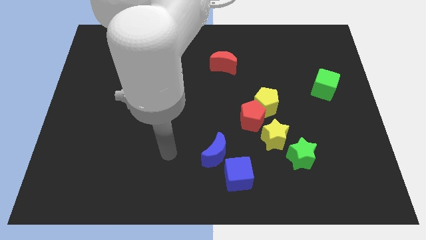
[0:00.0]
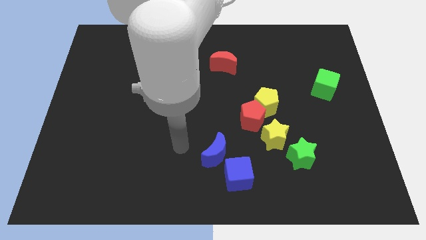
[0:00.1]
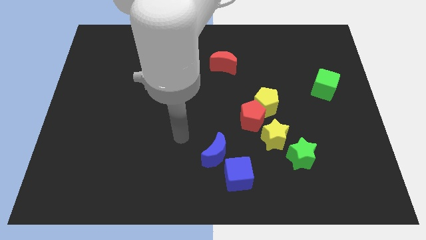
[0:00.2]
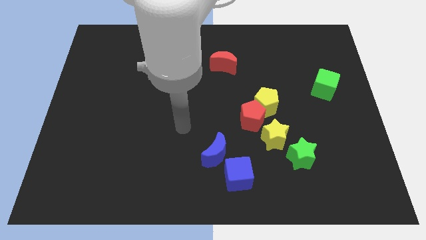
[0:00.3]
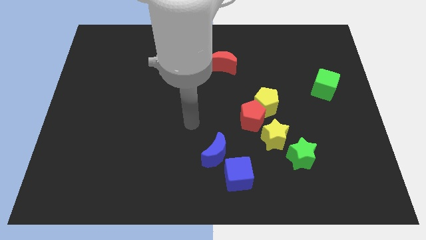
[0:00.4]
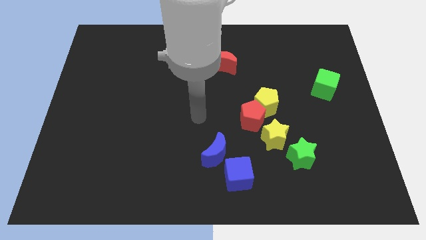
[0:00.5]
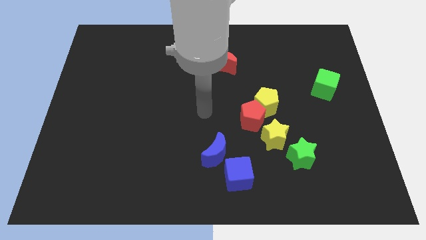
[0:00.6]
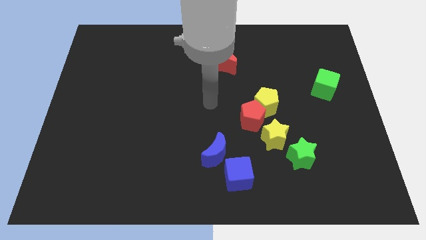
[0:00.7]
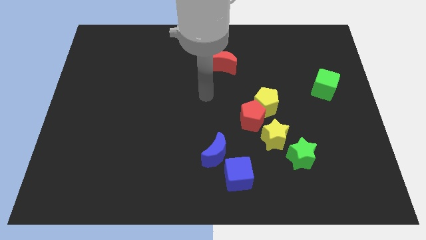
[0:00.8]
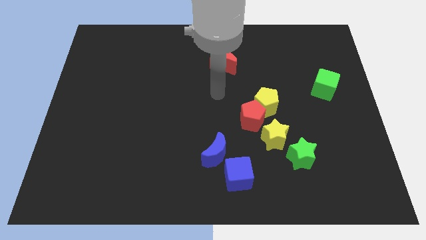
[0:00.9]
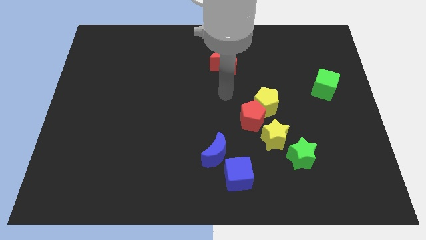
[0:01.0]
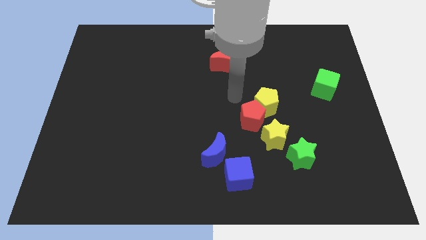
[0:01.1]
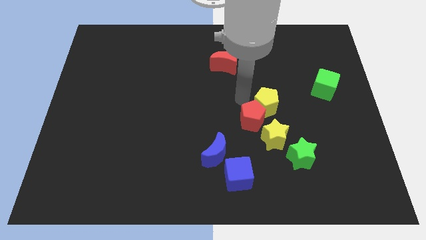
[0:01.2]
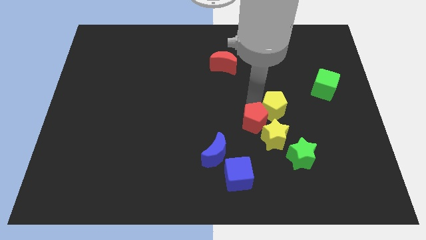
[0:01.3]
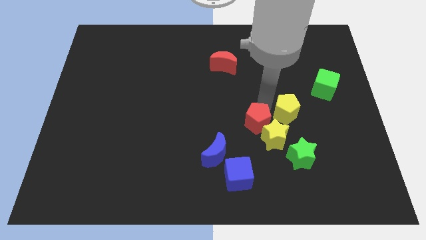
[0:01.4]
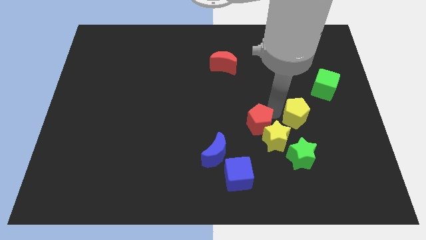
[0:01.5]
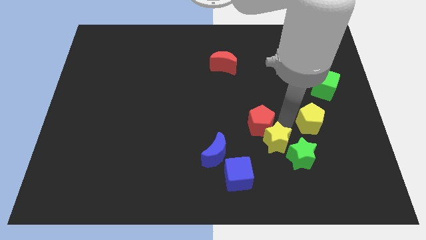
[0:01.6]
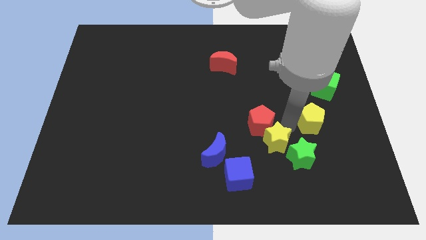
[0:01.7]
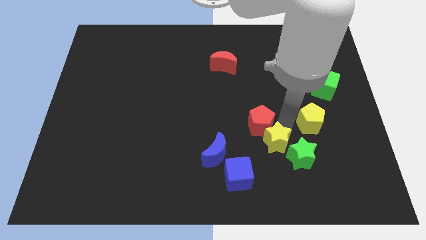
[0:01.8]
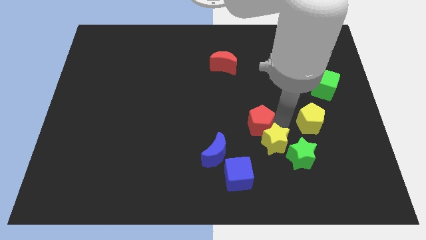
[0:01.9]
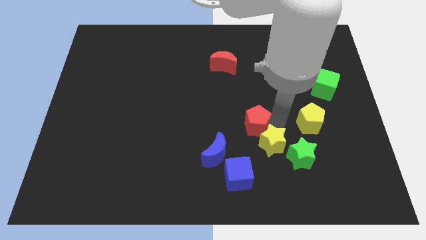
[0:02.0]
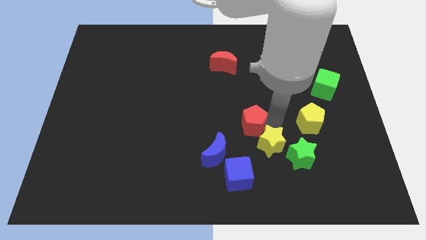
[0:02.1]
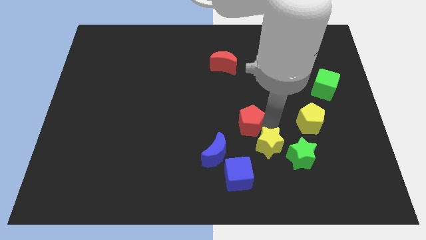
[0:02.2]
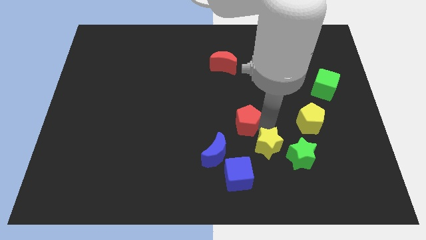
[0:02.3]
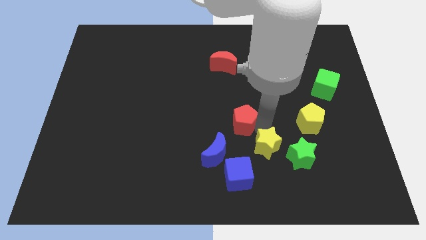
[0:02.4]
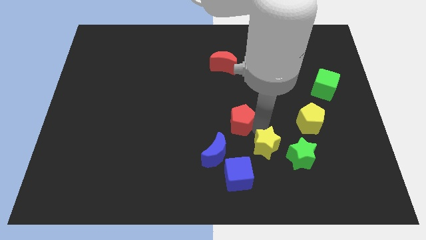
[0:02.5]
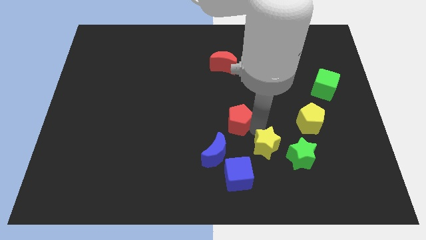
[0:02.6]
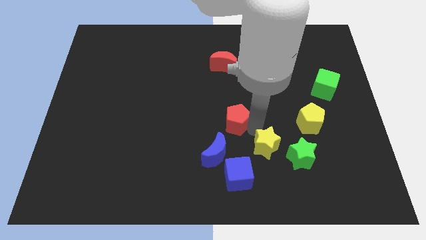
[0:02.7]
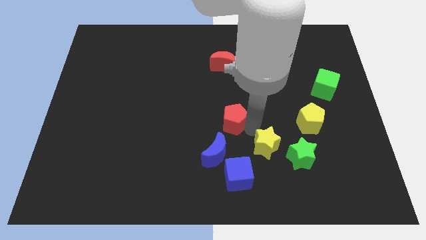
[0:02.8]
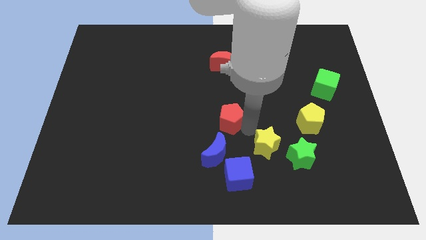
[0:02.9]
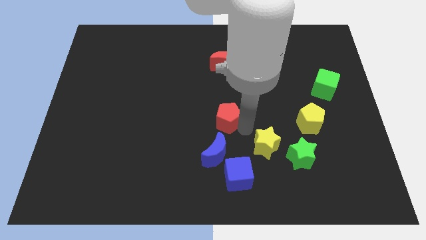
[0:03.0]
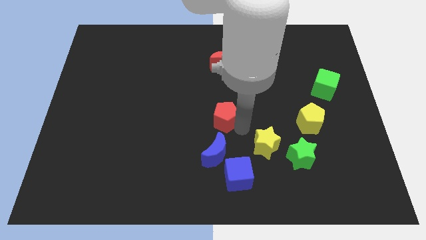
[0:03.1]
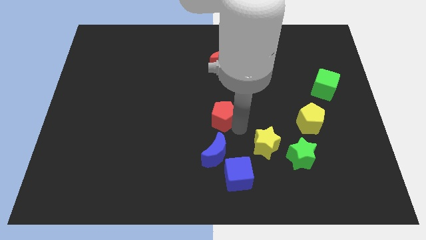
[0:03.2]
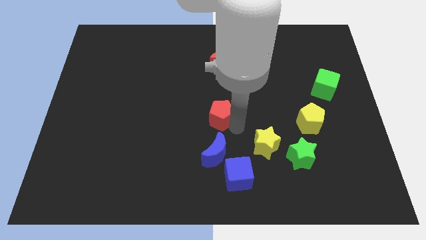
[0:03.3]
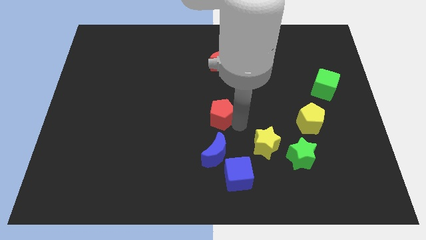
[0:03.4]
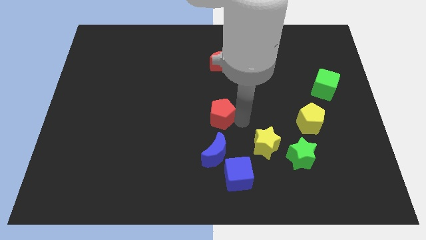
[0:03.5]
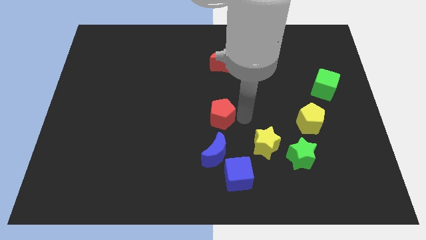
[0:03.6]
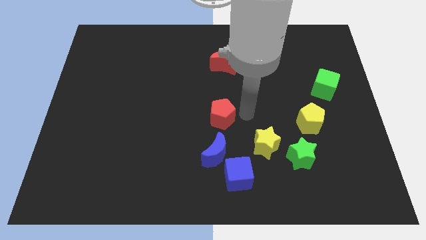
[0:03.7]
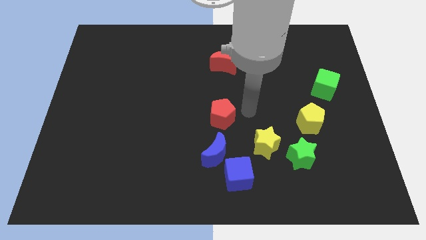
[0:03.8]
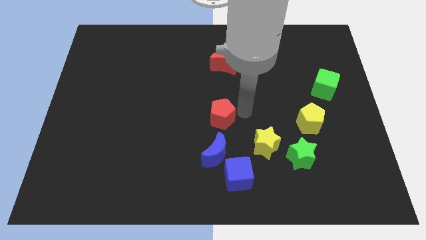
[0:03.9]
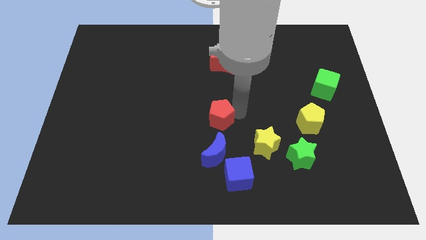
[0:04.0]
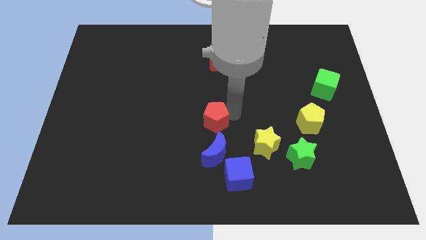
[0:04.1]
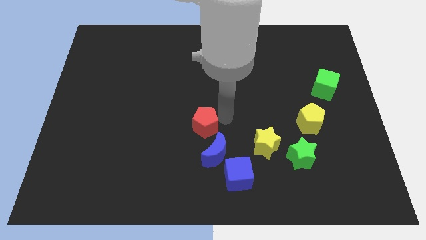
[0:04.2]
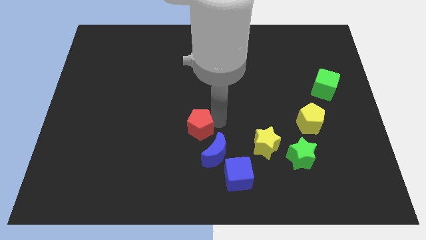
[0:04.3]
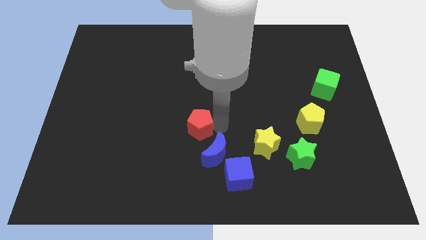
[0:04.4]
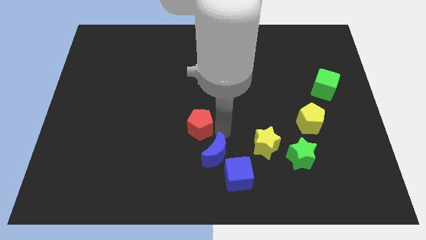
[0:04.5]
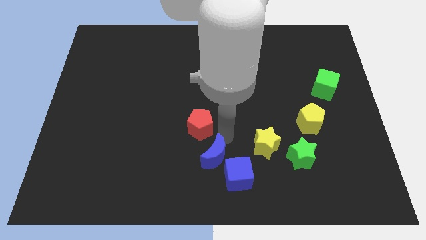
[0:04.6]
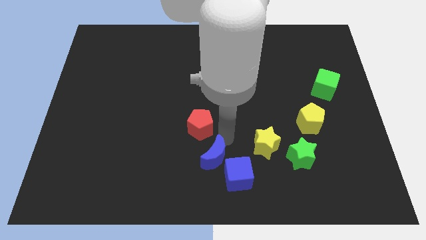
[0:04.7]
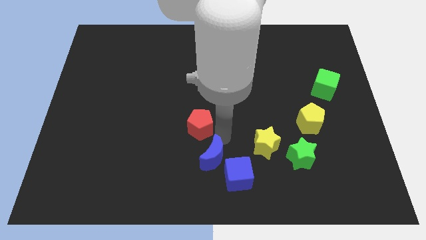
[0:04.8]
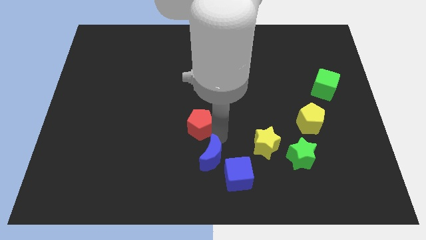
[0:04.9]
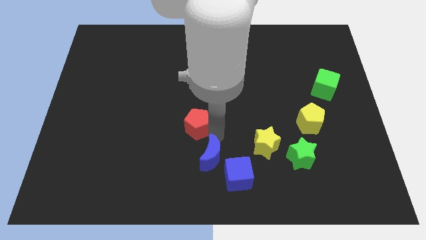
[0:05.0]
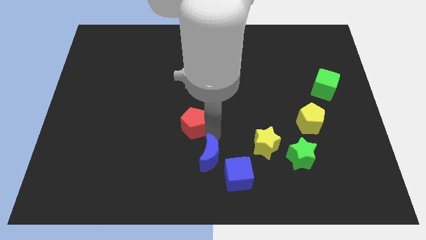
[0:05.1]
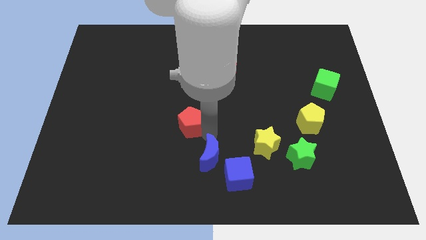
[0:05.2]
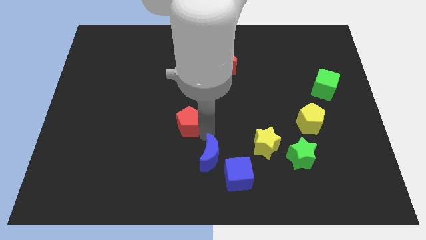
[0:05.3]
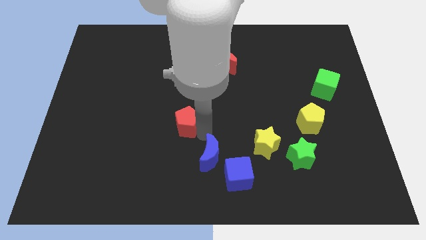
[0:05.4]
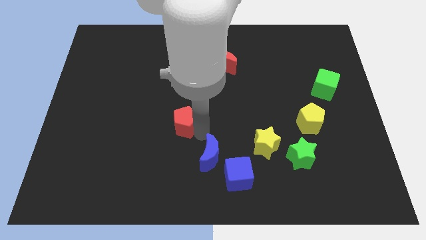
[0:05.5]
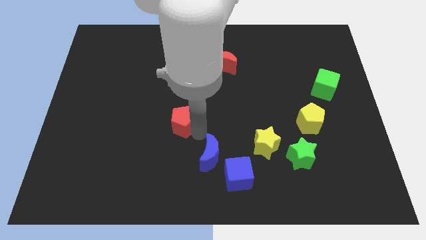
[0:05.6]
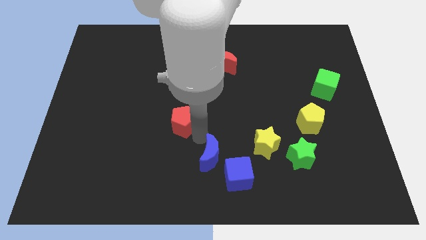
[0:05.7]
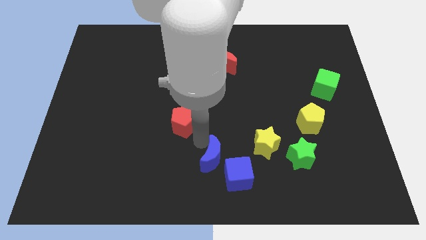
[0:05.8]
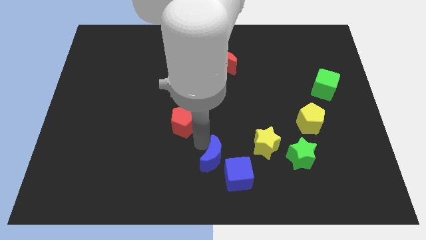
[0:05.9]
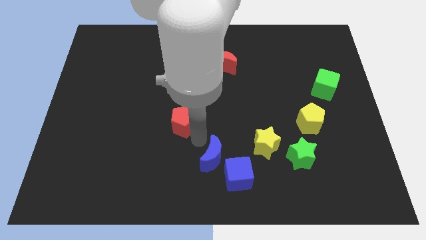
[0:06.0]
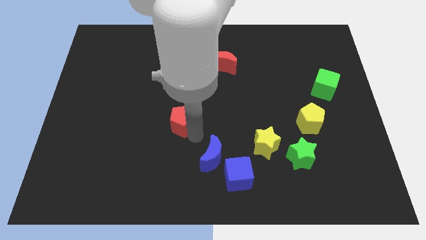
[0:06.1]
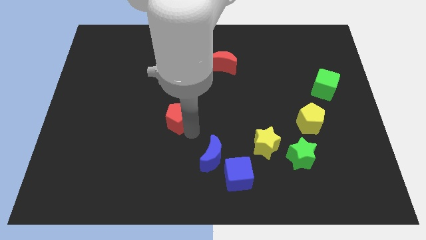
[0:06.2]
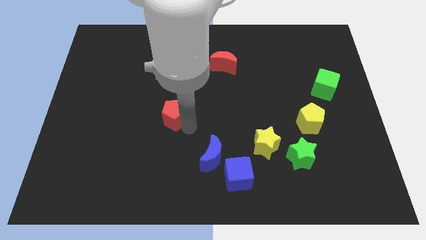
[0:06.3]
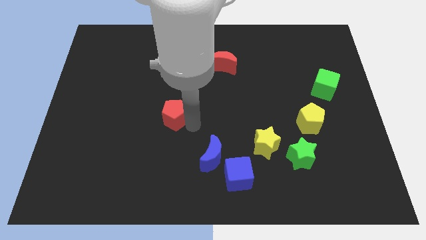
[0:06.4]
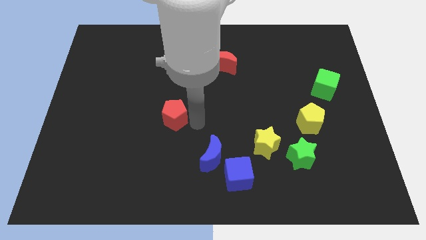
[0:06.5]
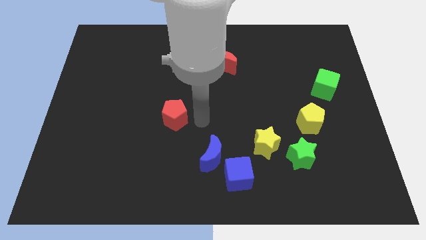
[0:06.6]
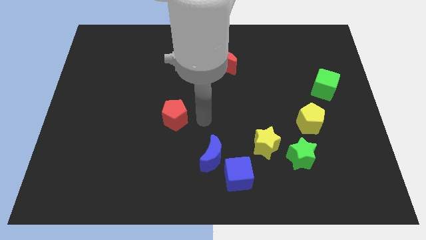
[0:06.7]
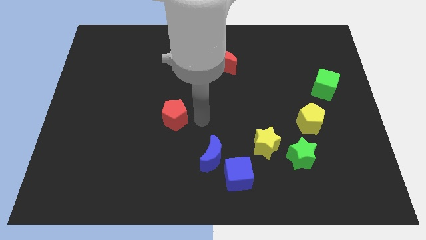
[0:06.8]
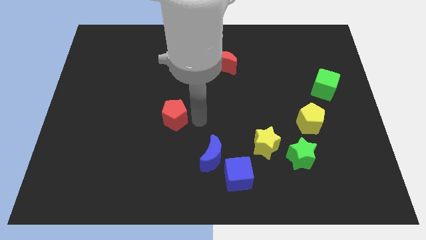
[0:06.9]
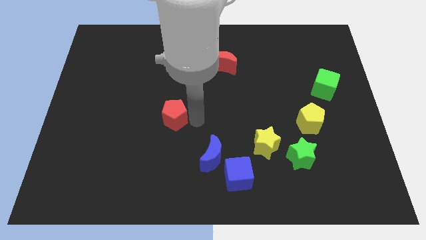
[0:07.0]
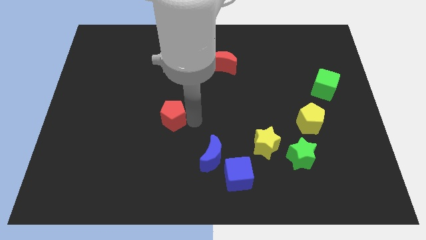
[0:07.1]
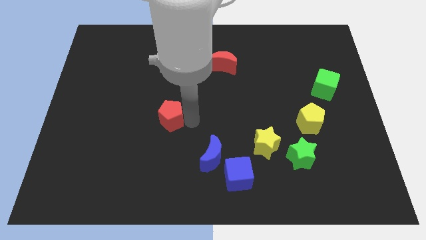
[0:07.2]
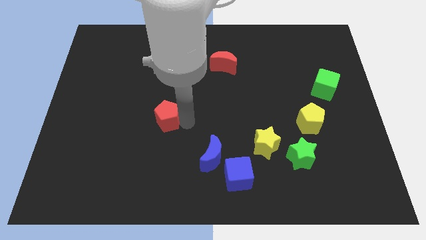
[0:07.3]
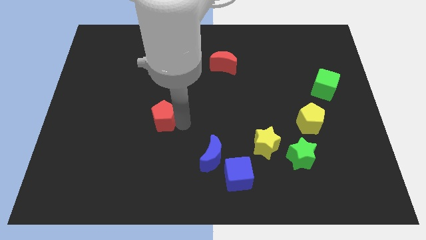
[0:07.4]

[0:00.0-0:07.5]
push the red pentagon left

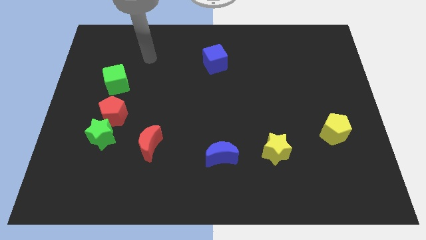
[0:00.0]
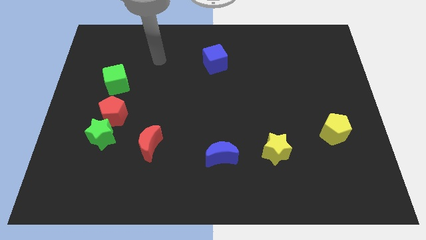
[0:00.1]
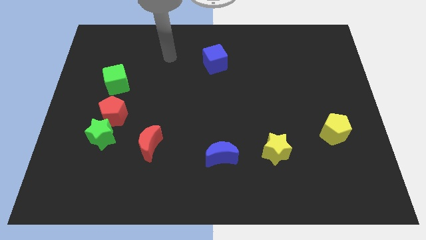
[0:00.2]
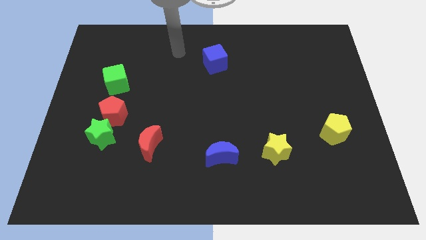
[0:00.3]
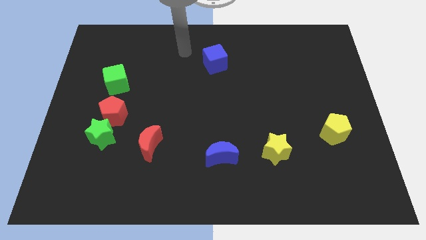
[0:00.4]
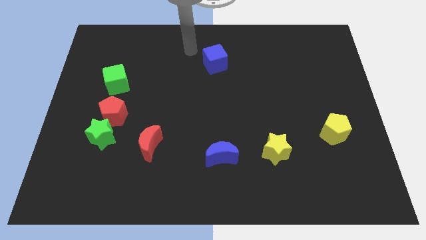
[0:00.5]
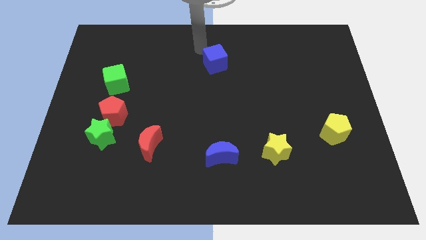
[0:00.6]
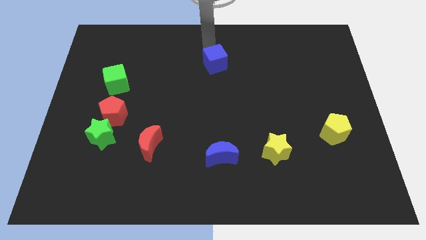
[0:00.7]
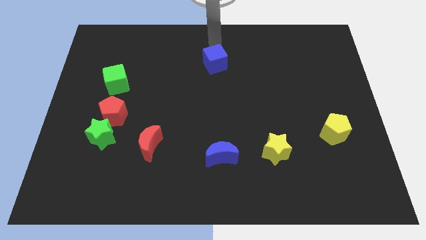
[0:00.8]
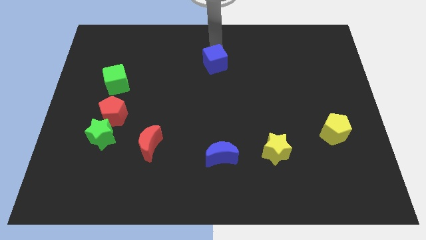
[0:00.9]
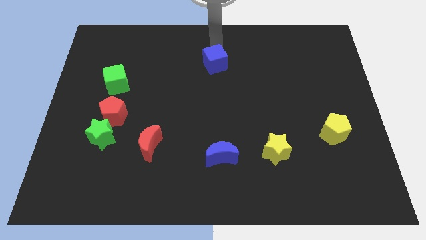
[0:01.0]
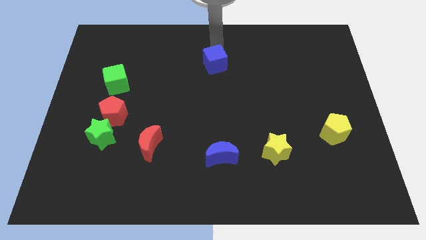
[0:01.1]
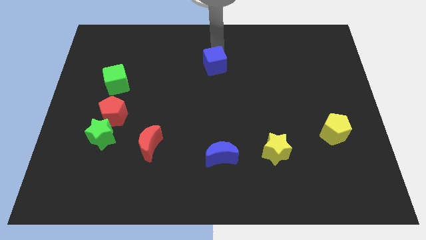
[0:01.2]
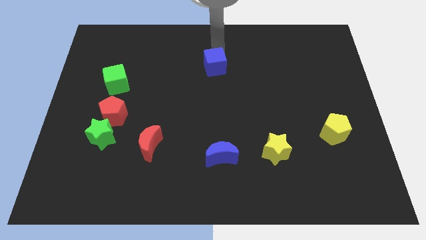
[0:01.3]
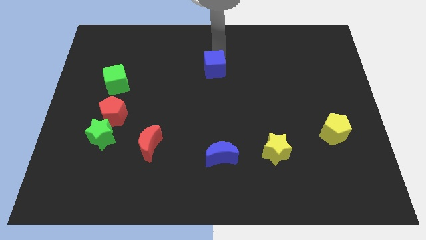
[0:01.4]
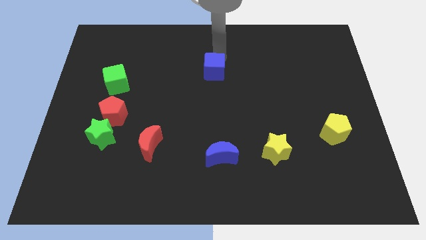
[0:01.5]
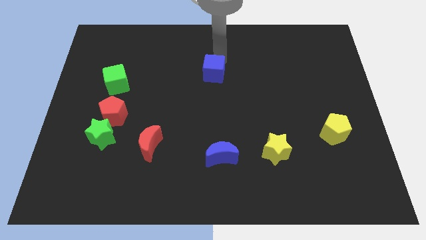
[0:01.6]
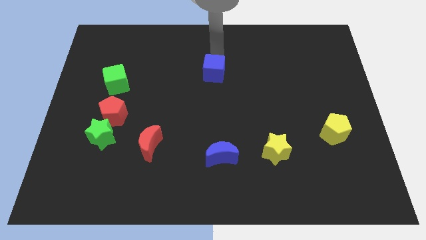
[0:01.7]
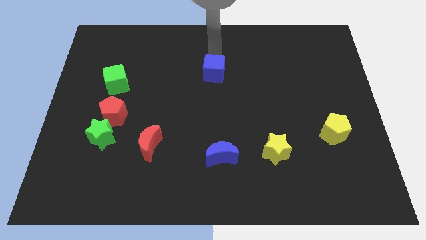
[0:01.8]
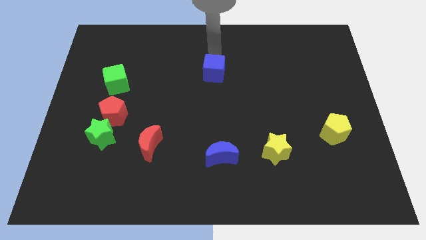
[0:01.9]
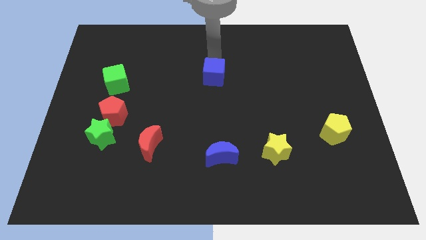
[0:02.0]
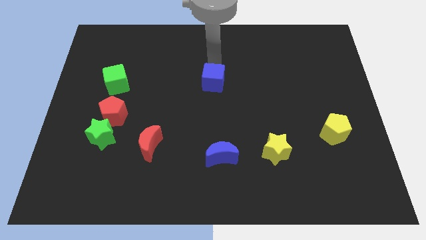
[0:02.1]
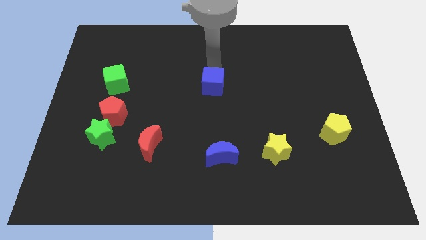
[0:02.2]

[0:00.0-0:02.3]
slightly push the blue cube down
